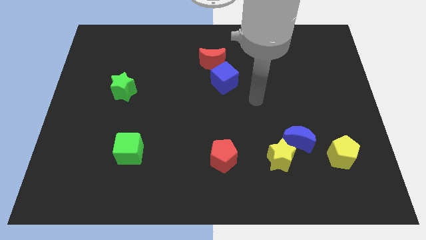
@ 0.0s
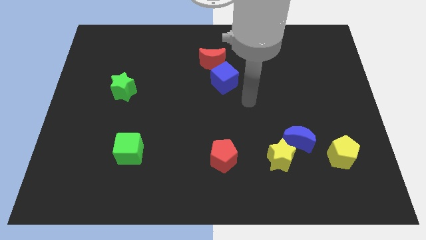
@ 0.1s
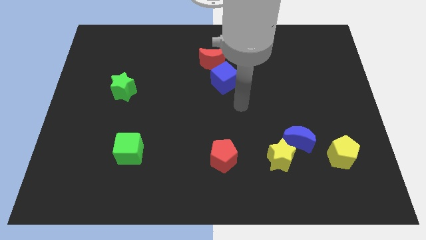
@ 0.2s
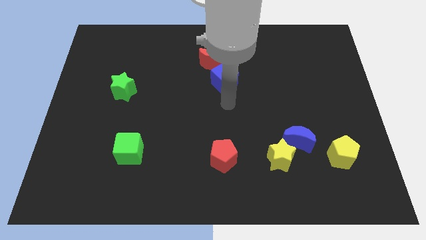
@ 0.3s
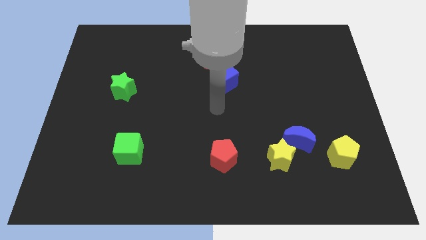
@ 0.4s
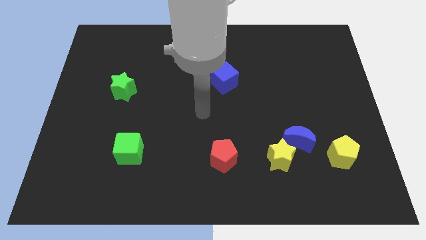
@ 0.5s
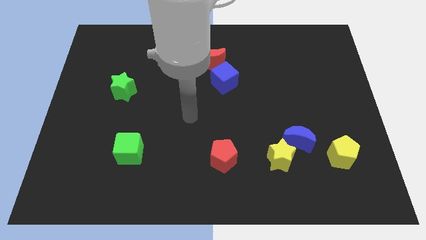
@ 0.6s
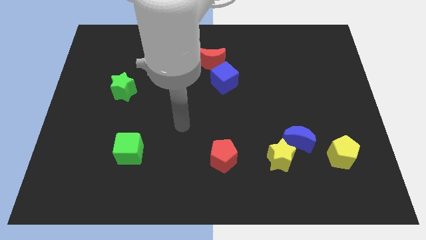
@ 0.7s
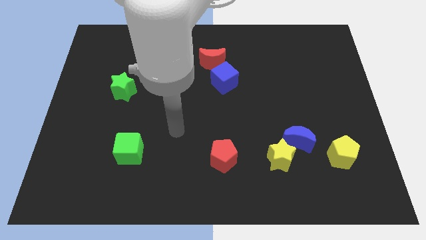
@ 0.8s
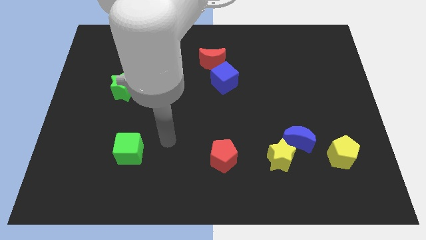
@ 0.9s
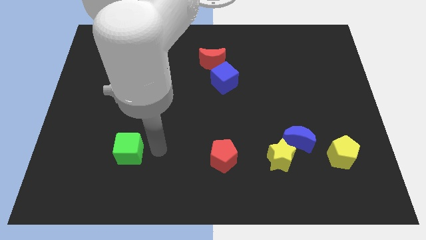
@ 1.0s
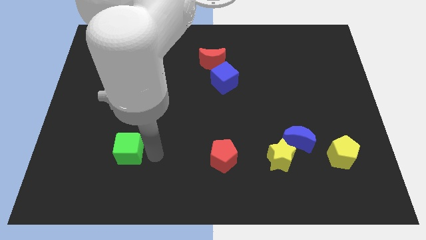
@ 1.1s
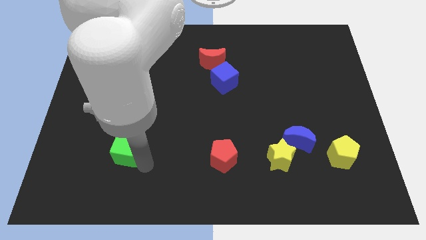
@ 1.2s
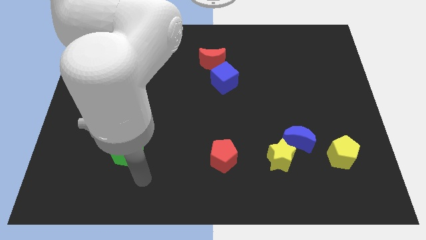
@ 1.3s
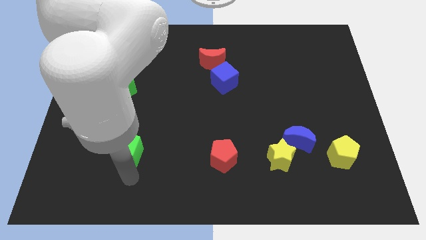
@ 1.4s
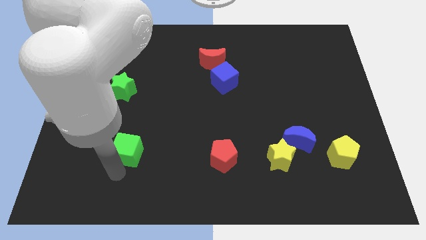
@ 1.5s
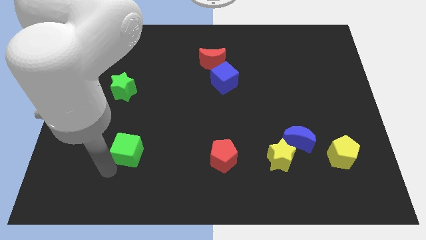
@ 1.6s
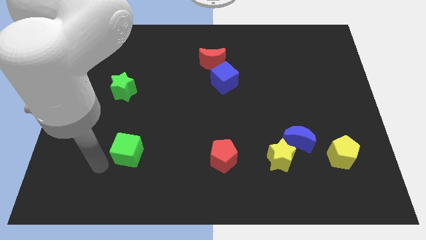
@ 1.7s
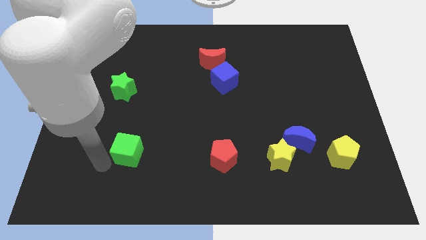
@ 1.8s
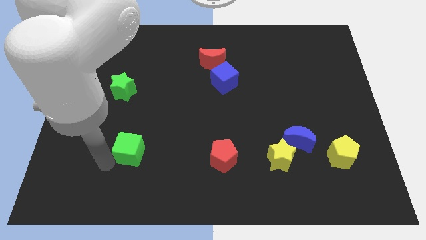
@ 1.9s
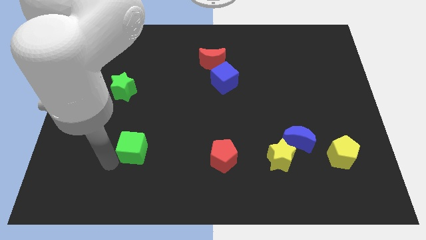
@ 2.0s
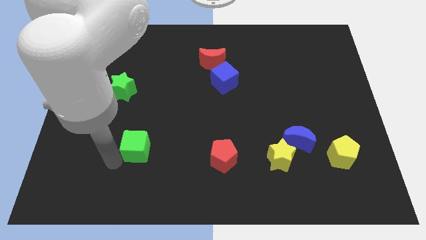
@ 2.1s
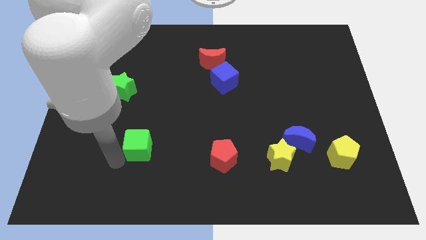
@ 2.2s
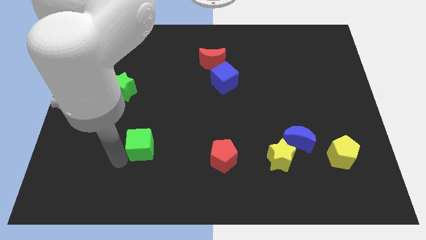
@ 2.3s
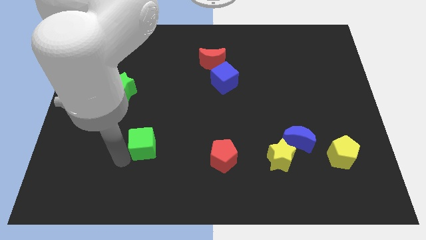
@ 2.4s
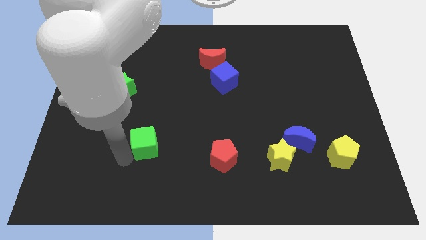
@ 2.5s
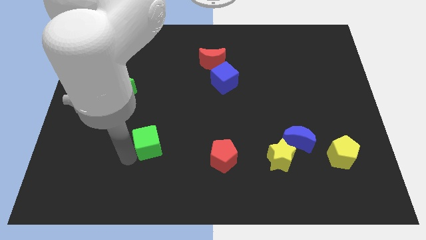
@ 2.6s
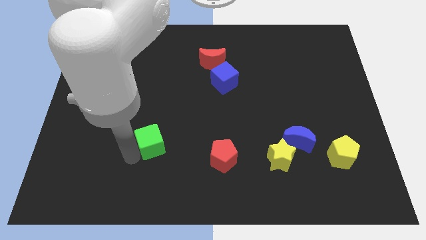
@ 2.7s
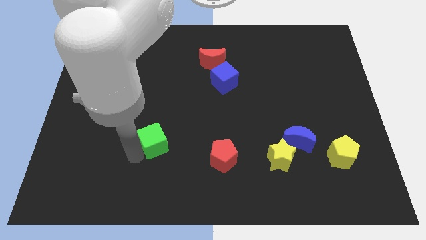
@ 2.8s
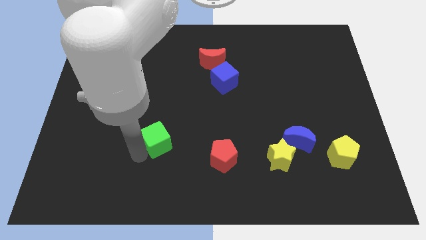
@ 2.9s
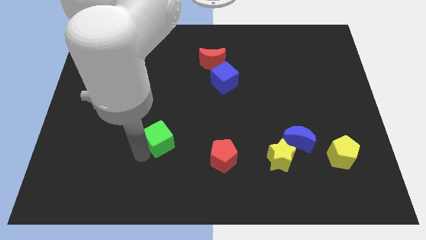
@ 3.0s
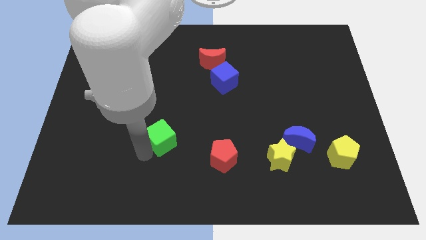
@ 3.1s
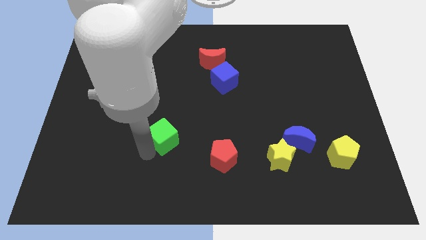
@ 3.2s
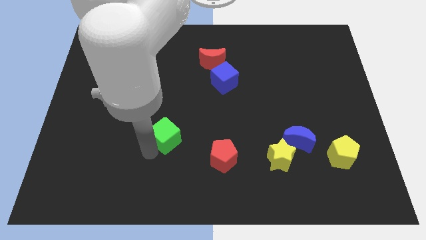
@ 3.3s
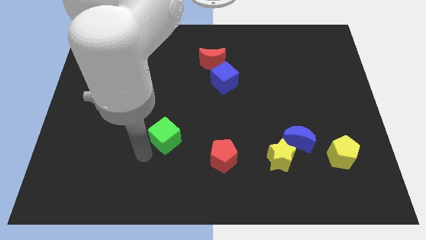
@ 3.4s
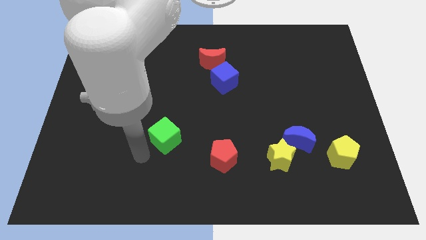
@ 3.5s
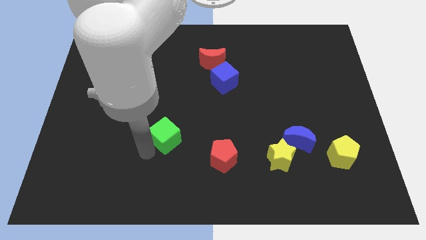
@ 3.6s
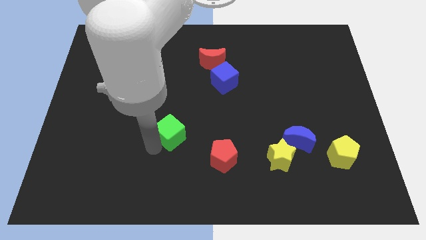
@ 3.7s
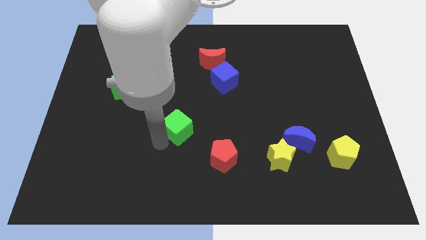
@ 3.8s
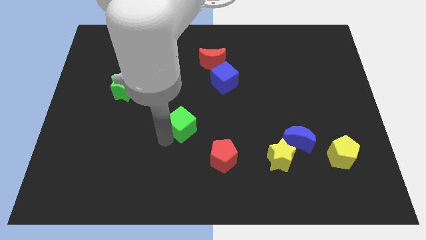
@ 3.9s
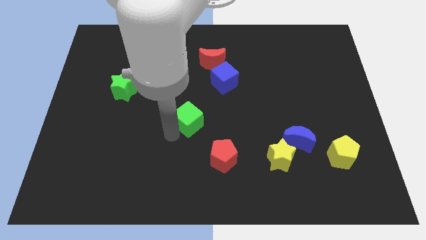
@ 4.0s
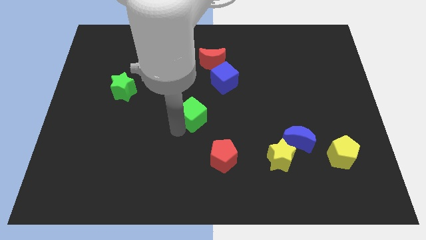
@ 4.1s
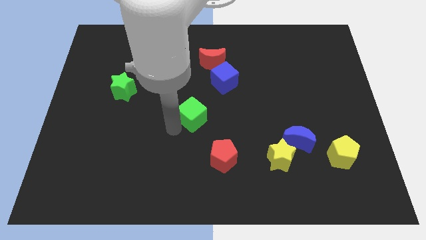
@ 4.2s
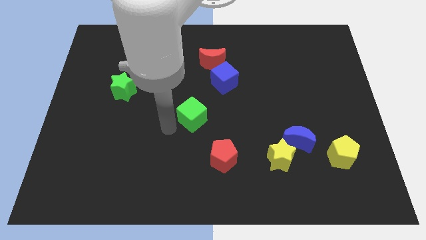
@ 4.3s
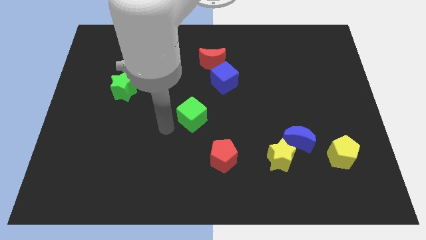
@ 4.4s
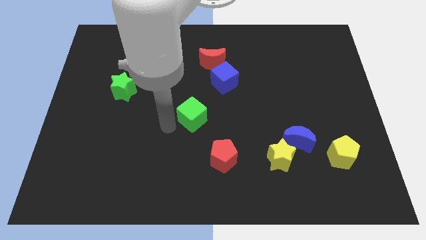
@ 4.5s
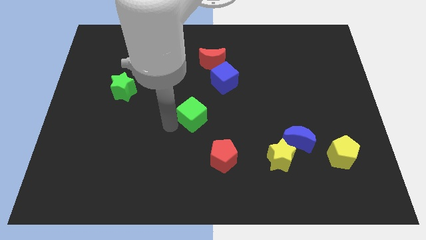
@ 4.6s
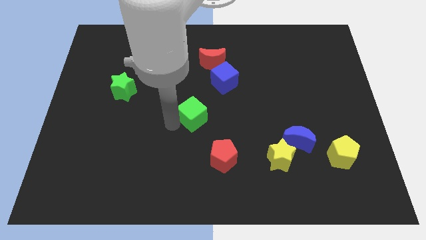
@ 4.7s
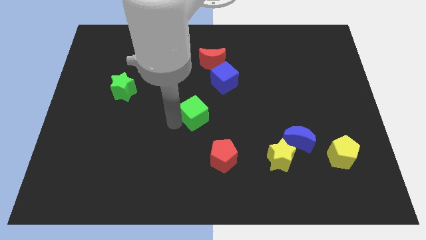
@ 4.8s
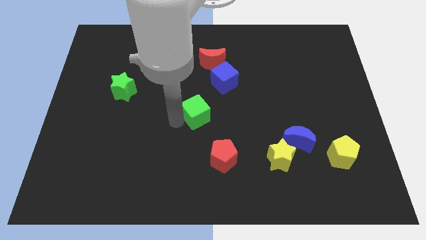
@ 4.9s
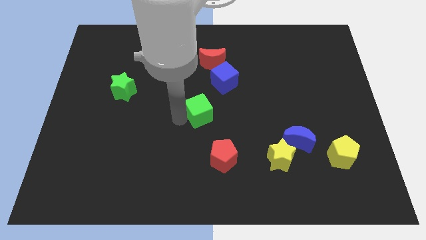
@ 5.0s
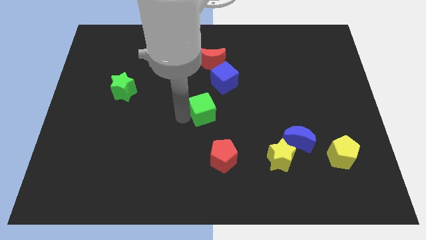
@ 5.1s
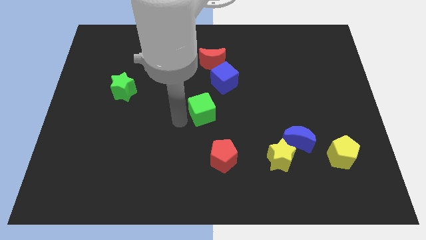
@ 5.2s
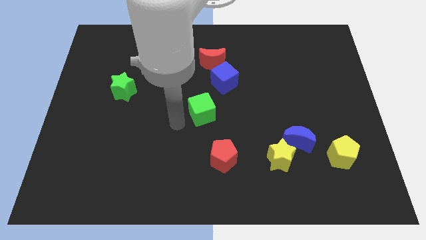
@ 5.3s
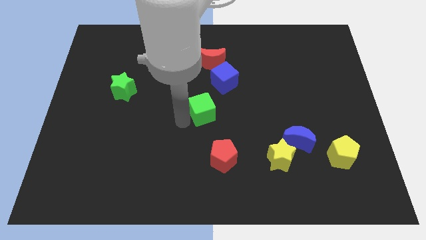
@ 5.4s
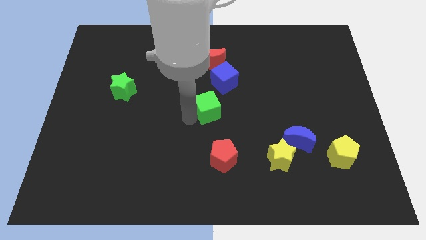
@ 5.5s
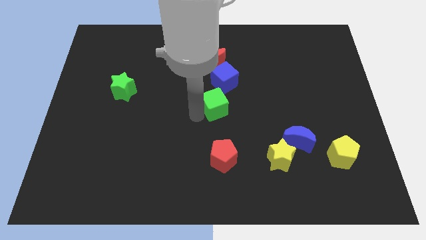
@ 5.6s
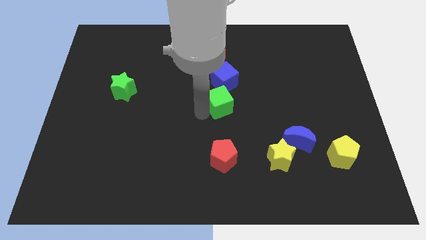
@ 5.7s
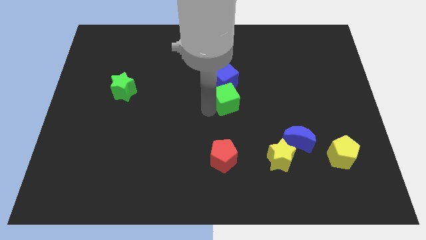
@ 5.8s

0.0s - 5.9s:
move the green cube diagonally down and to the right of the blue cube

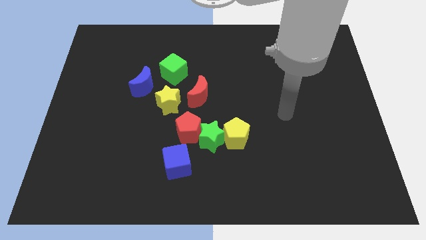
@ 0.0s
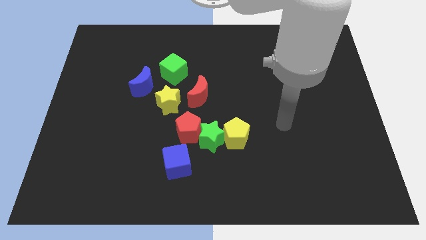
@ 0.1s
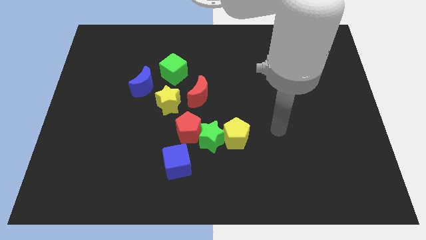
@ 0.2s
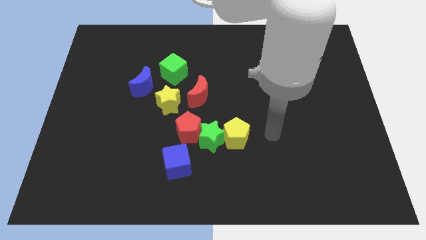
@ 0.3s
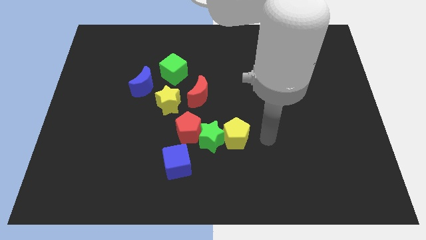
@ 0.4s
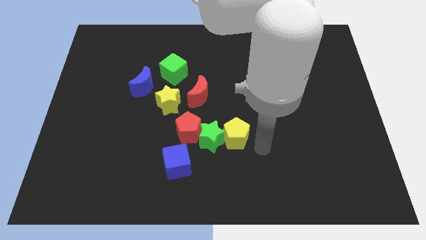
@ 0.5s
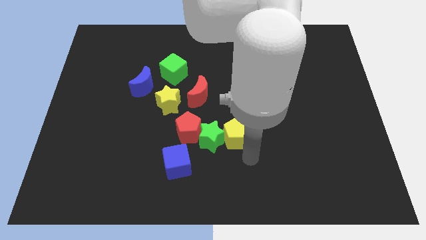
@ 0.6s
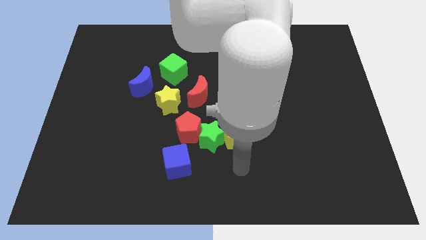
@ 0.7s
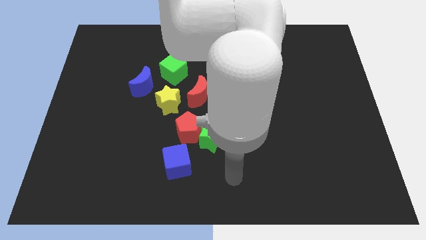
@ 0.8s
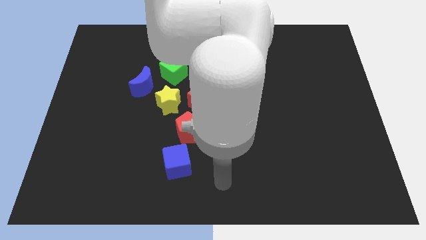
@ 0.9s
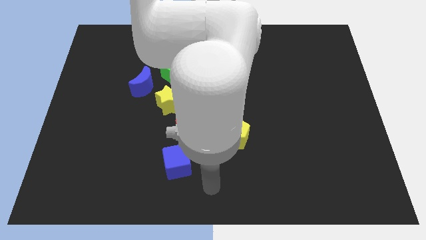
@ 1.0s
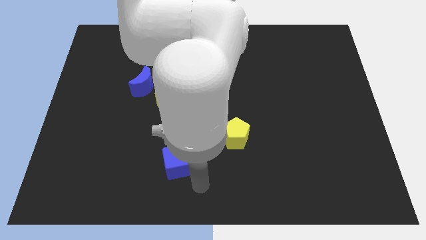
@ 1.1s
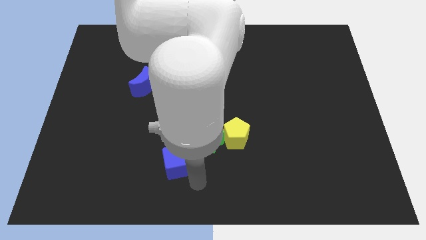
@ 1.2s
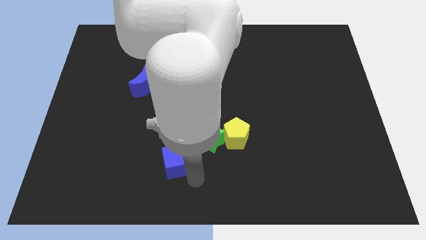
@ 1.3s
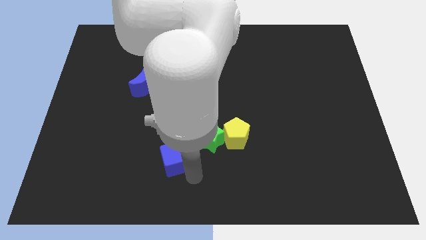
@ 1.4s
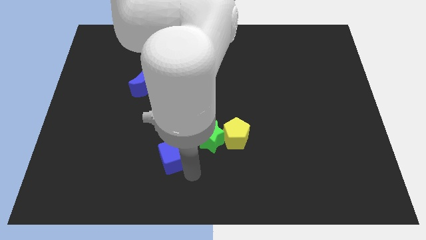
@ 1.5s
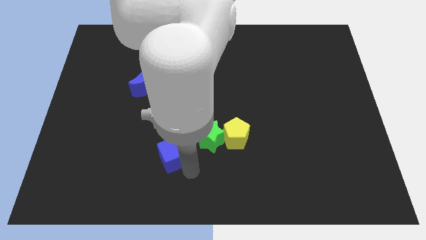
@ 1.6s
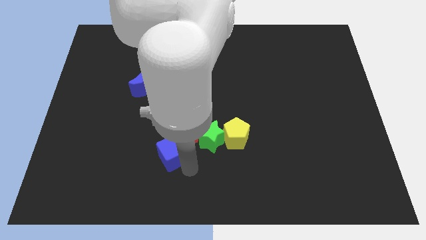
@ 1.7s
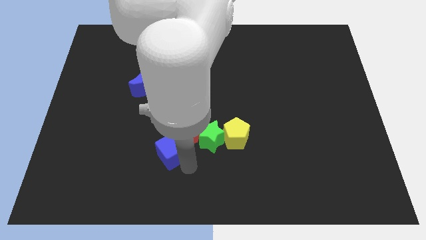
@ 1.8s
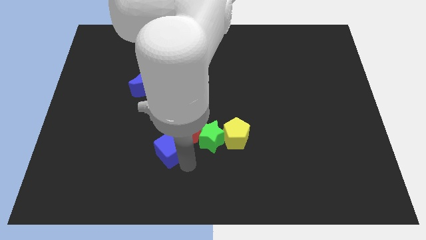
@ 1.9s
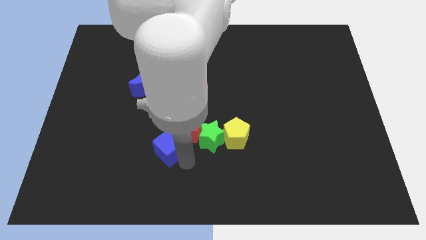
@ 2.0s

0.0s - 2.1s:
move the blue cube just left of the red pentagon
